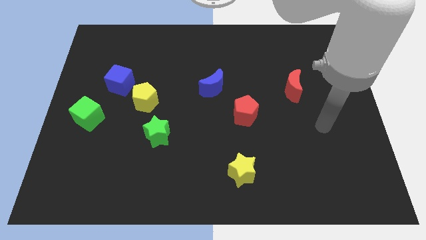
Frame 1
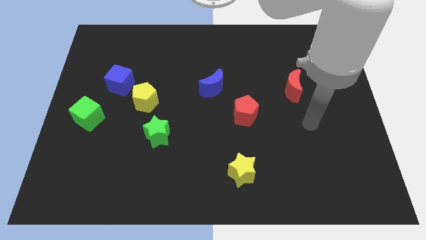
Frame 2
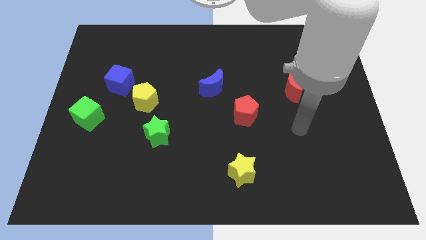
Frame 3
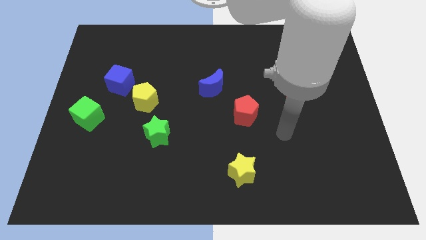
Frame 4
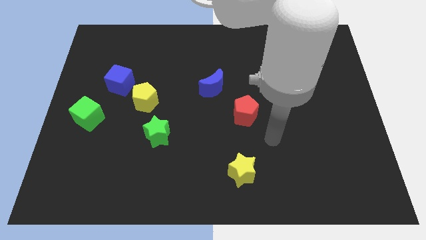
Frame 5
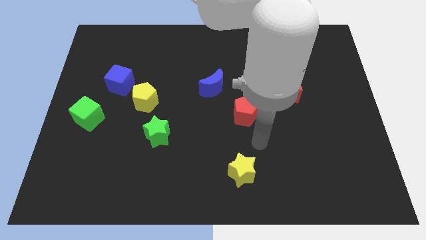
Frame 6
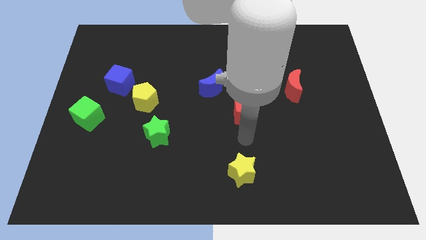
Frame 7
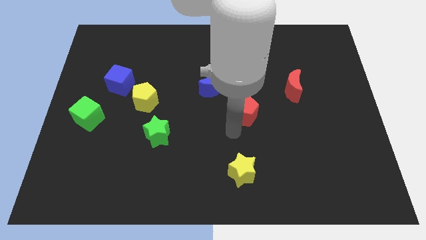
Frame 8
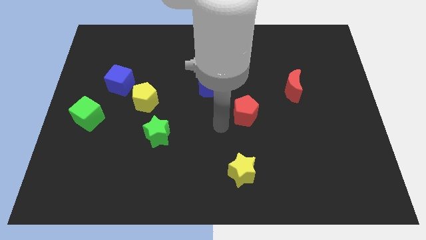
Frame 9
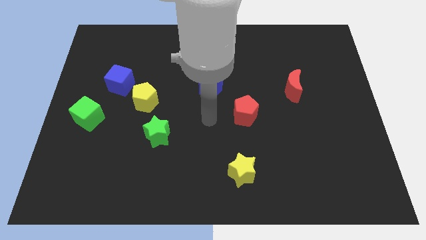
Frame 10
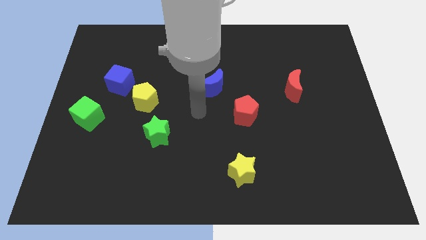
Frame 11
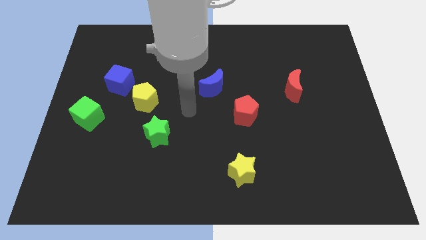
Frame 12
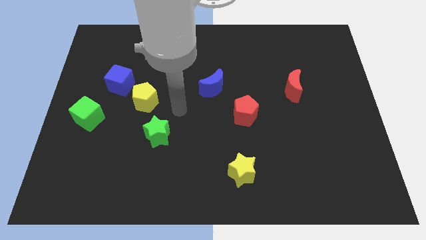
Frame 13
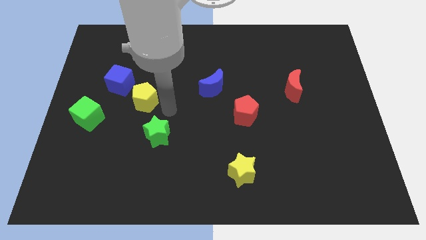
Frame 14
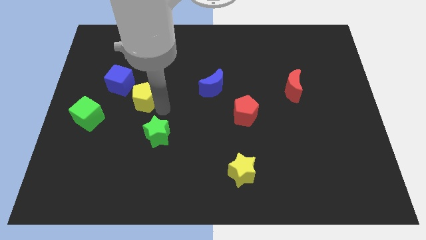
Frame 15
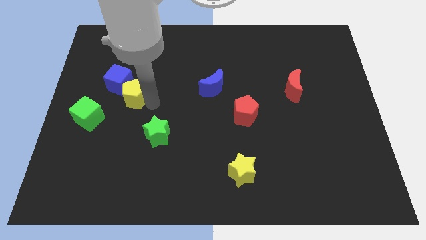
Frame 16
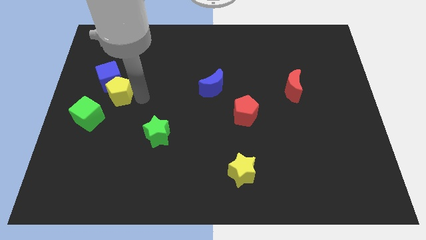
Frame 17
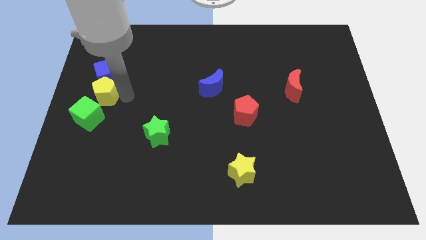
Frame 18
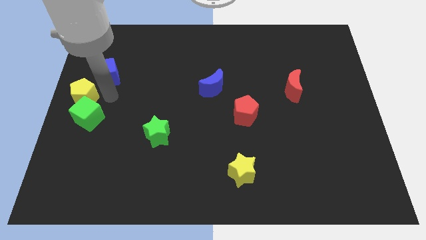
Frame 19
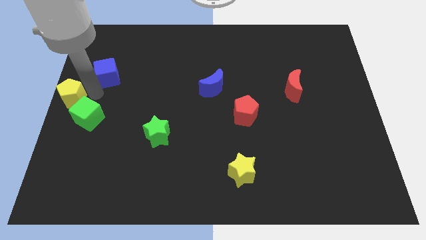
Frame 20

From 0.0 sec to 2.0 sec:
separate the blue cube from the yellow pentagon

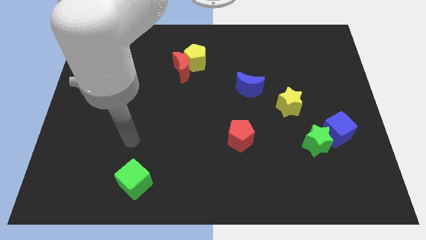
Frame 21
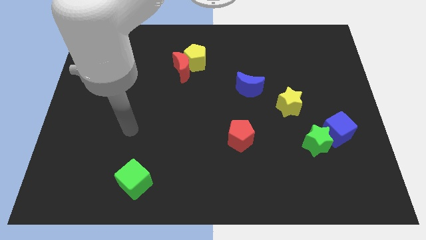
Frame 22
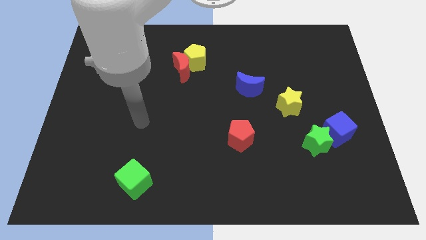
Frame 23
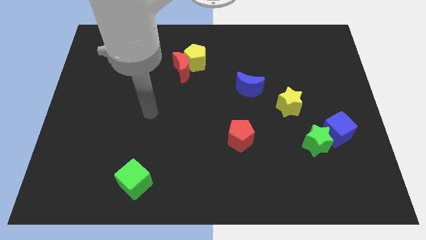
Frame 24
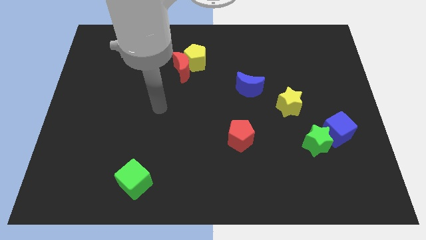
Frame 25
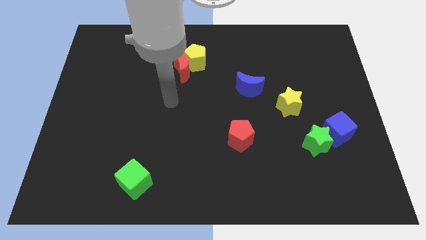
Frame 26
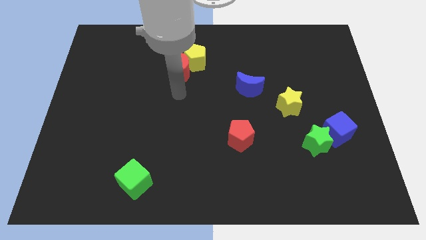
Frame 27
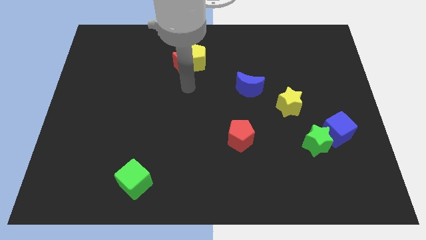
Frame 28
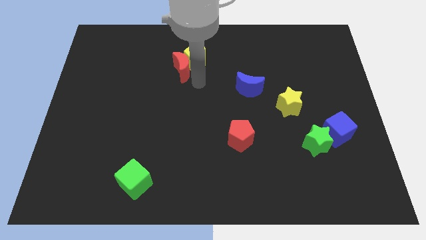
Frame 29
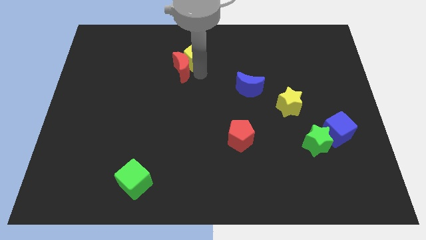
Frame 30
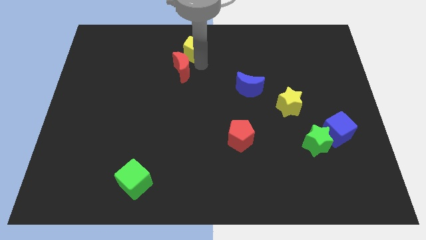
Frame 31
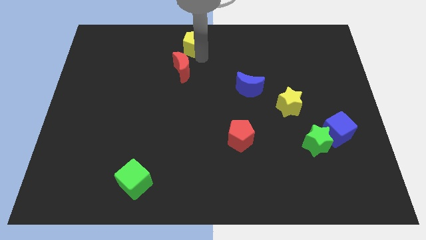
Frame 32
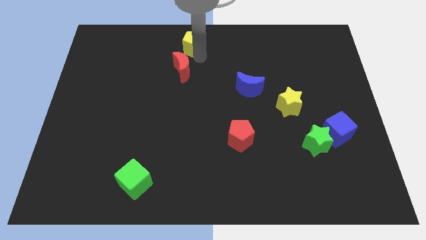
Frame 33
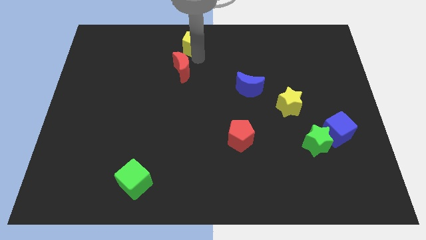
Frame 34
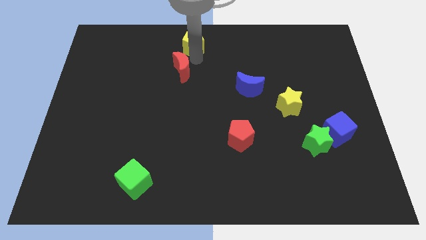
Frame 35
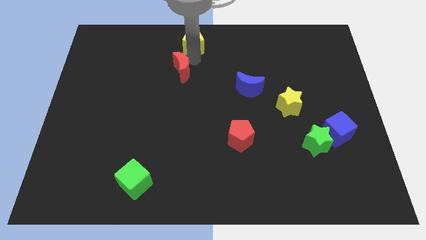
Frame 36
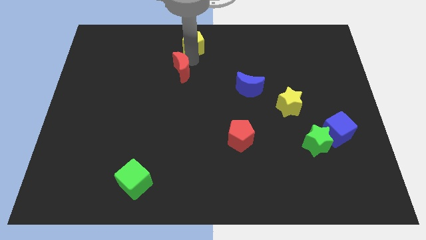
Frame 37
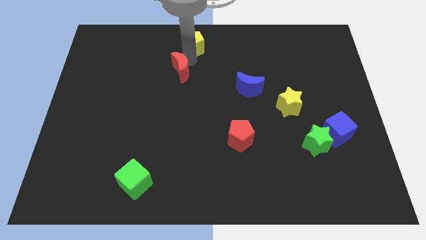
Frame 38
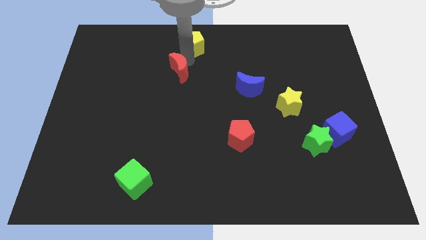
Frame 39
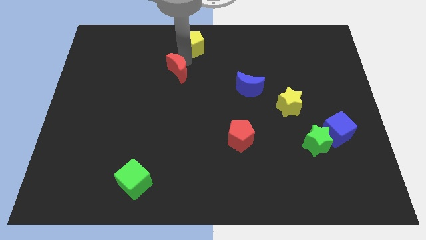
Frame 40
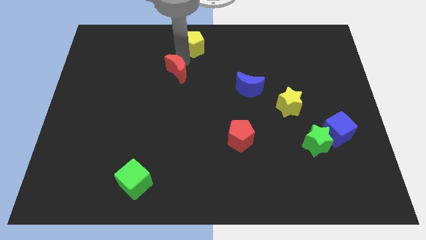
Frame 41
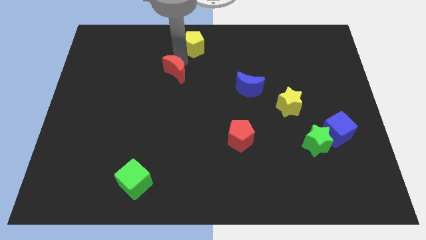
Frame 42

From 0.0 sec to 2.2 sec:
move the red moon away from the yellow pentagon

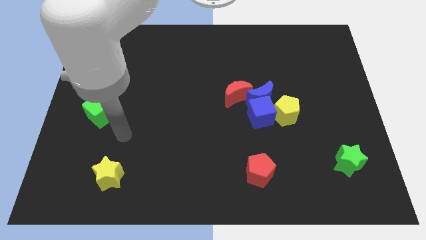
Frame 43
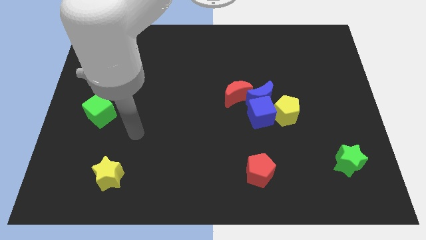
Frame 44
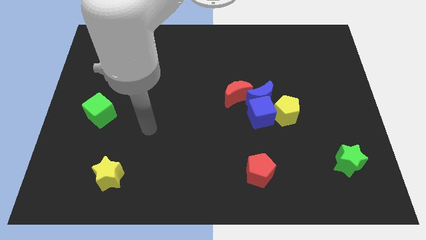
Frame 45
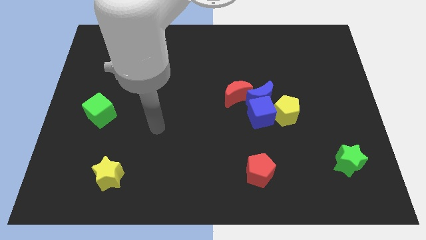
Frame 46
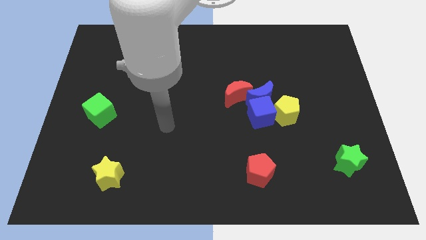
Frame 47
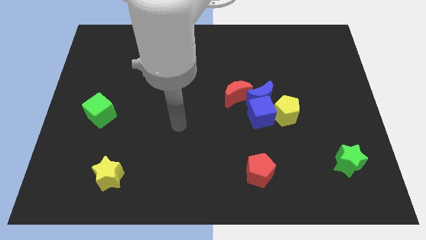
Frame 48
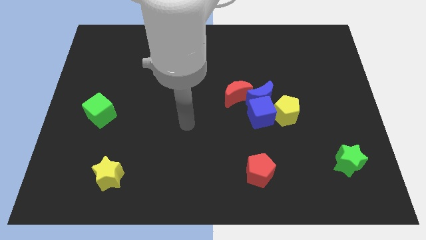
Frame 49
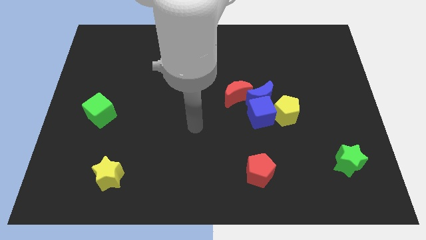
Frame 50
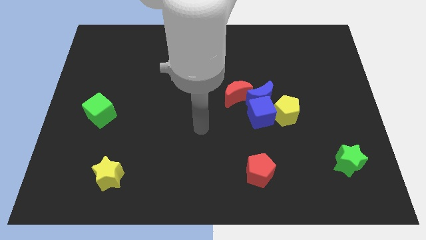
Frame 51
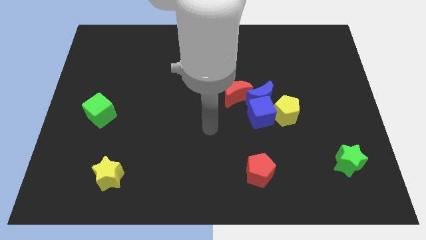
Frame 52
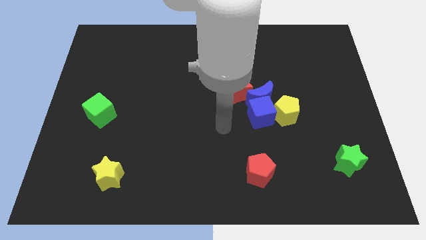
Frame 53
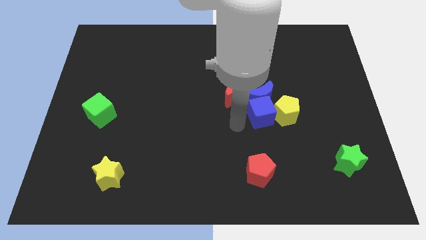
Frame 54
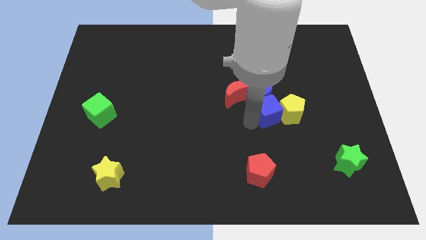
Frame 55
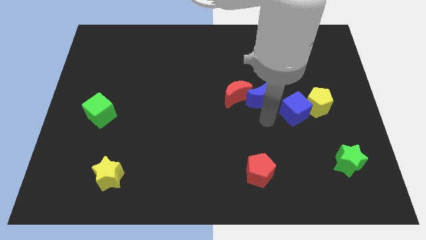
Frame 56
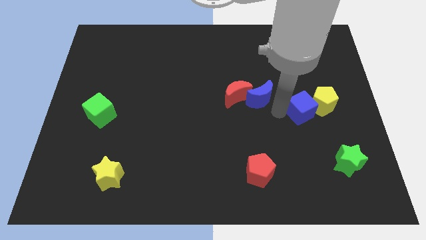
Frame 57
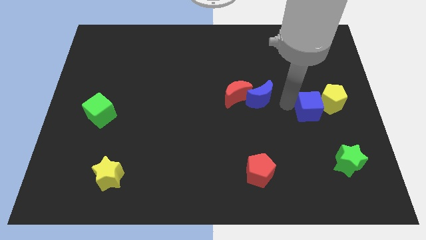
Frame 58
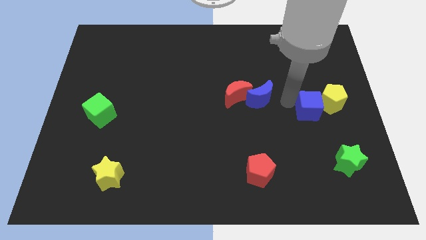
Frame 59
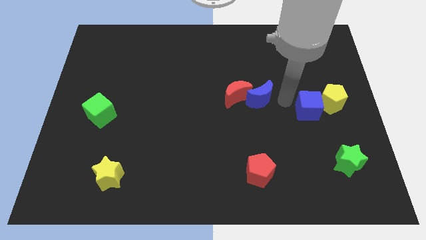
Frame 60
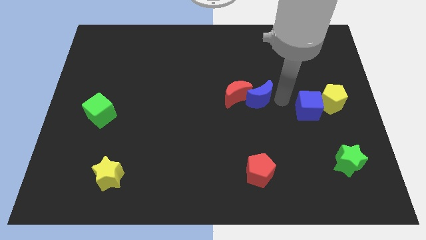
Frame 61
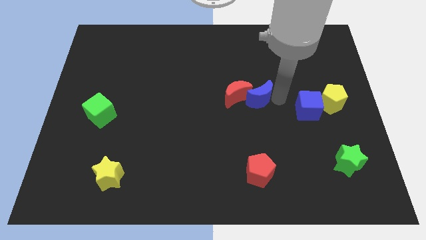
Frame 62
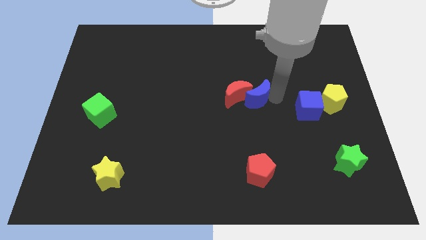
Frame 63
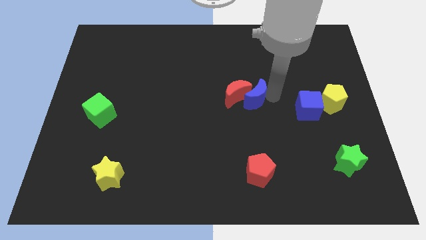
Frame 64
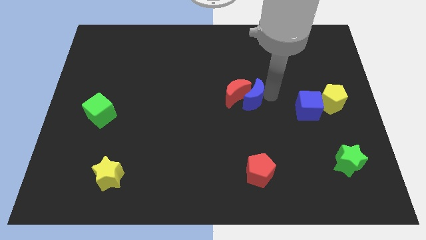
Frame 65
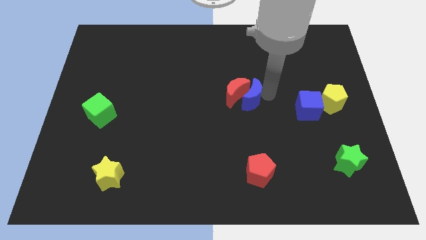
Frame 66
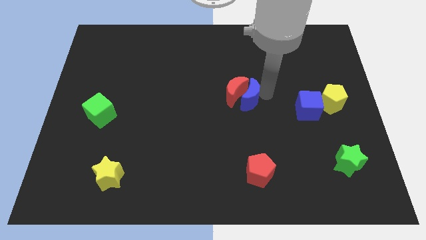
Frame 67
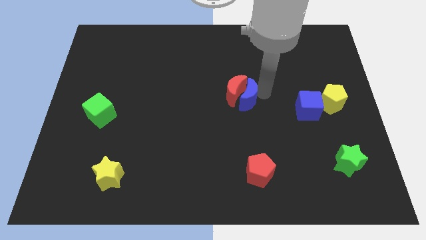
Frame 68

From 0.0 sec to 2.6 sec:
separate the blue moon from the clump

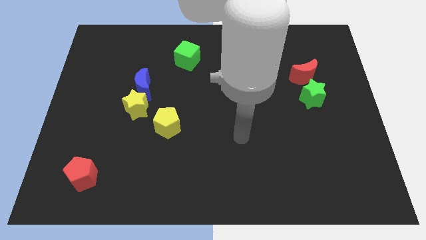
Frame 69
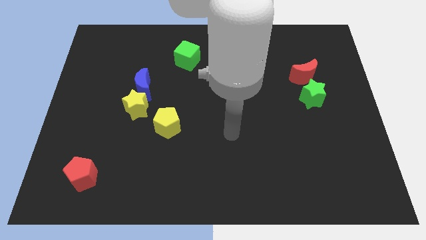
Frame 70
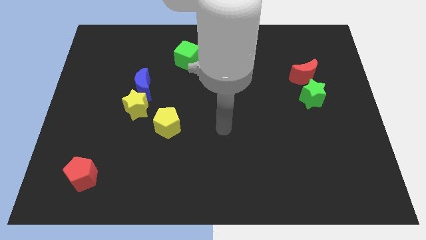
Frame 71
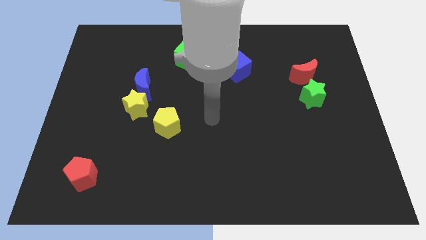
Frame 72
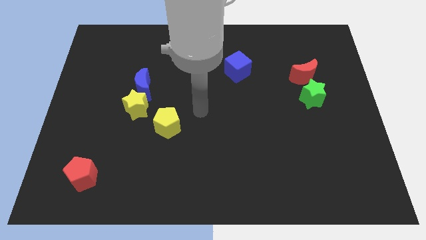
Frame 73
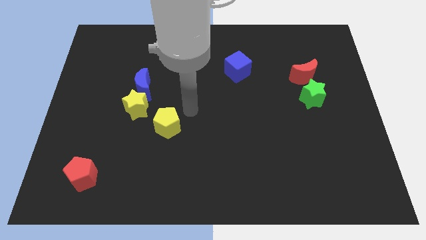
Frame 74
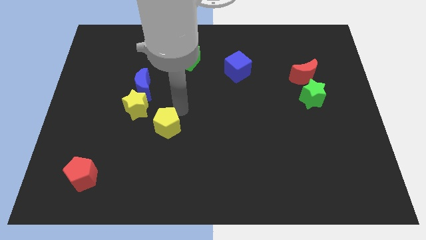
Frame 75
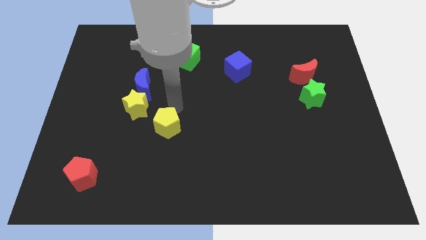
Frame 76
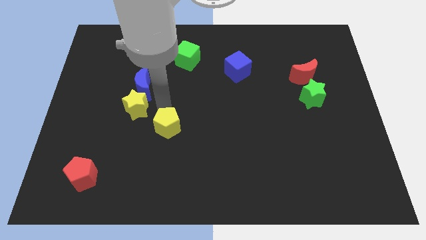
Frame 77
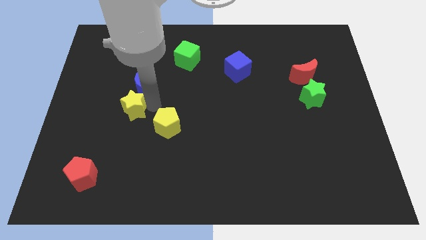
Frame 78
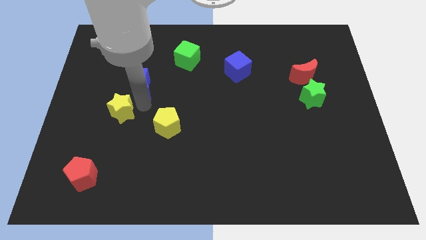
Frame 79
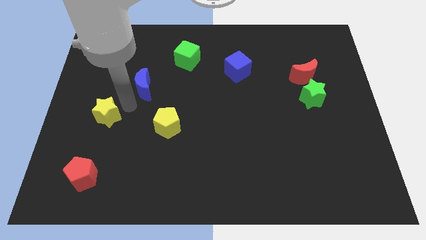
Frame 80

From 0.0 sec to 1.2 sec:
separate the blue moon from the yellow star

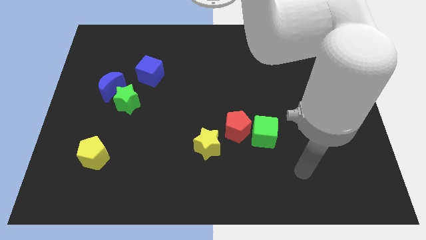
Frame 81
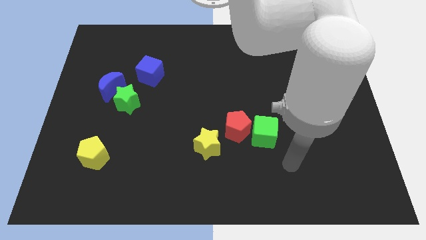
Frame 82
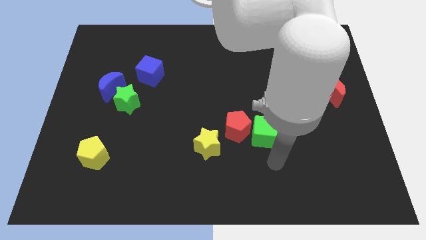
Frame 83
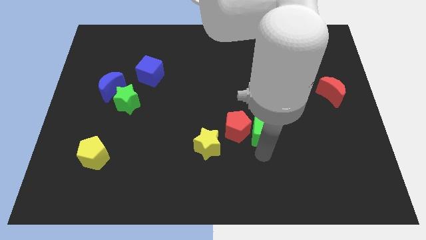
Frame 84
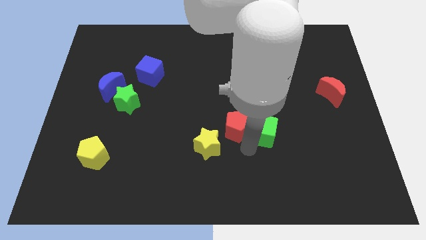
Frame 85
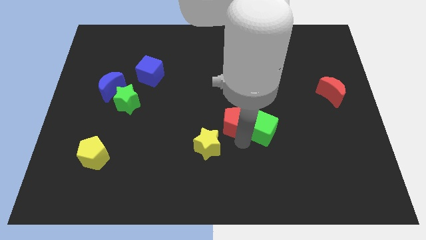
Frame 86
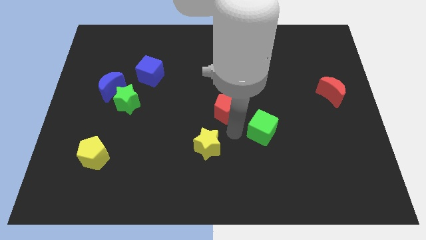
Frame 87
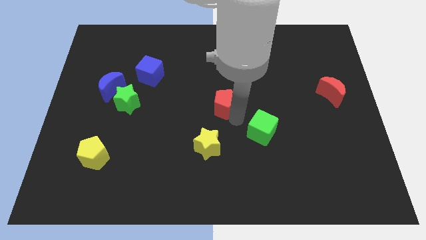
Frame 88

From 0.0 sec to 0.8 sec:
separate the green cube from the red pentagon

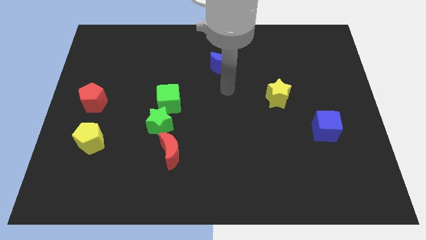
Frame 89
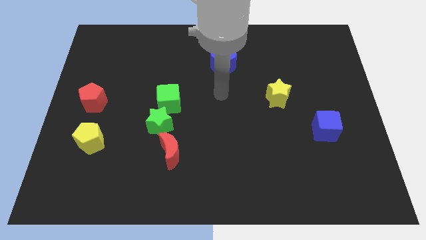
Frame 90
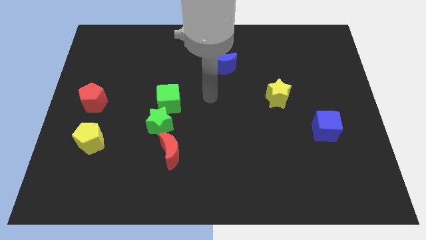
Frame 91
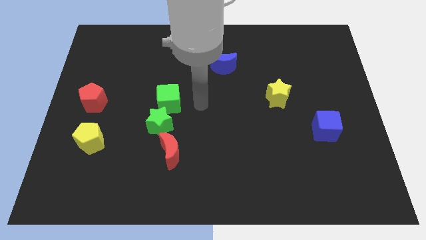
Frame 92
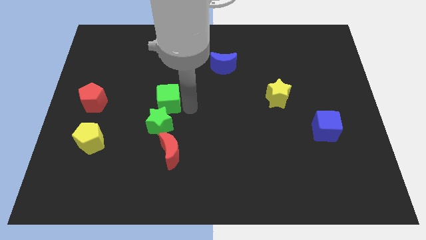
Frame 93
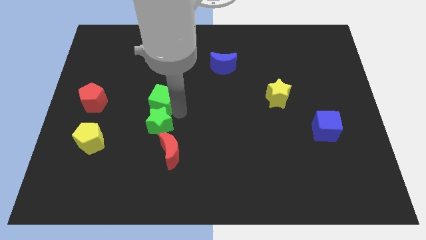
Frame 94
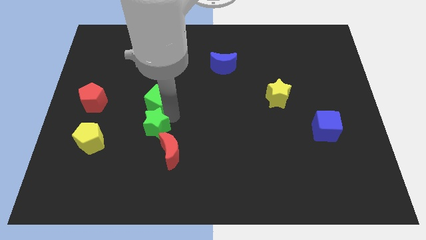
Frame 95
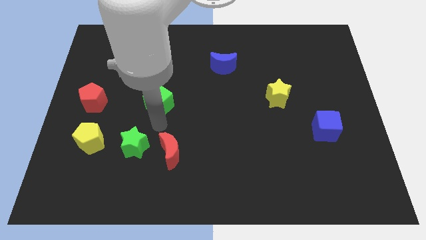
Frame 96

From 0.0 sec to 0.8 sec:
move the green cube away from the green star
